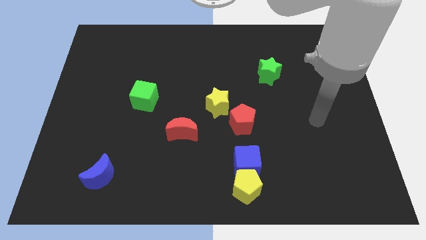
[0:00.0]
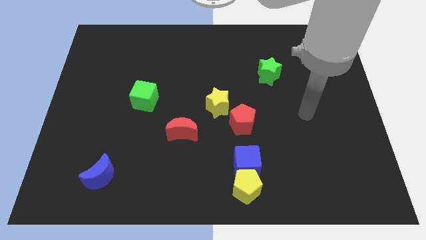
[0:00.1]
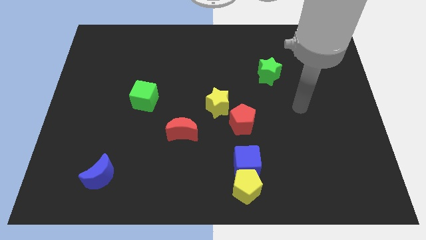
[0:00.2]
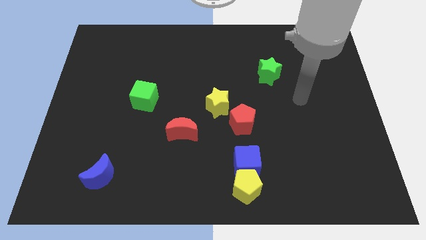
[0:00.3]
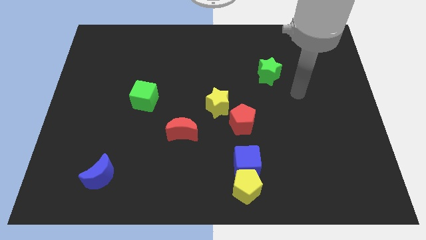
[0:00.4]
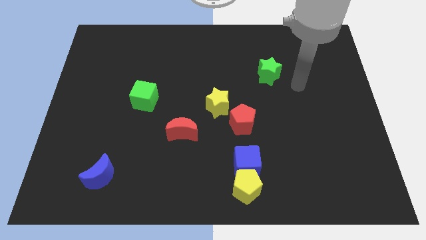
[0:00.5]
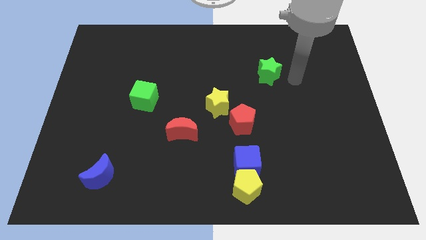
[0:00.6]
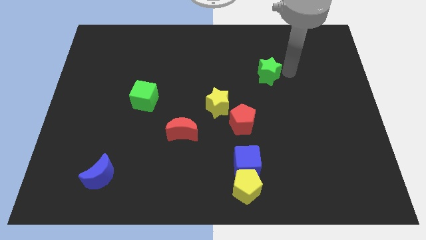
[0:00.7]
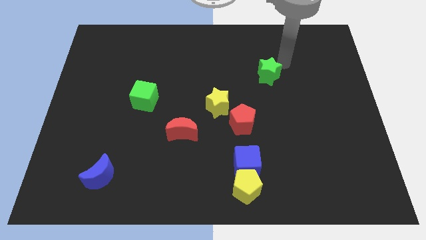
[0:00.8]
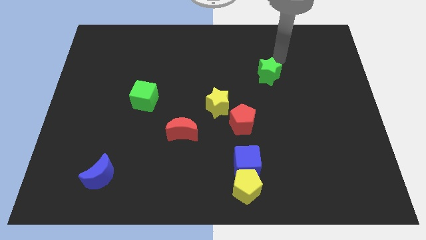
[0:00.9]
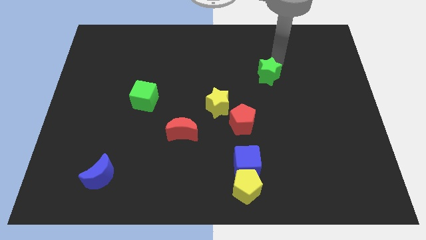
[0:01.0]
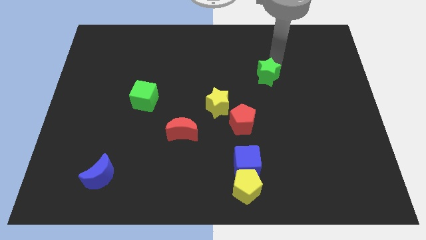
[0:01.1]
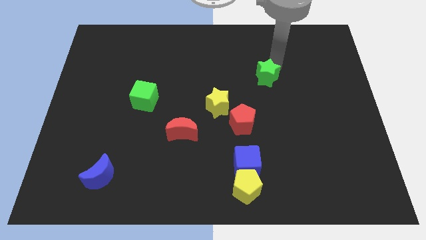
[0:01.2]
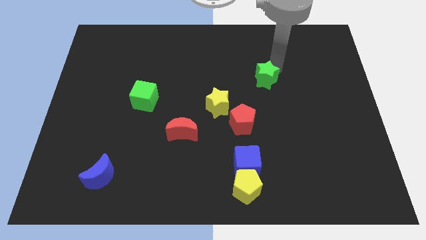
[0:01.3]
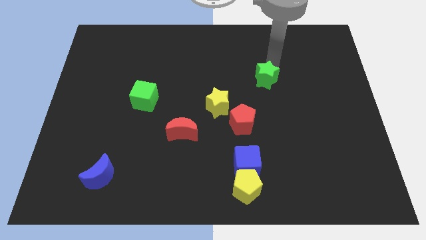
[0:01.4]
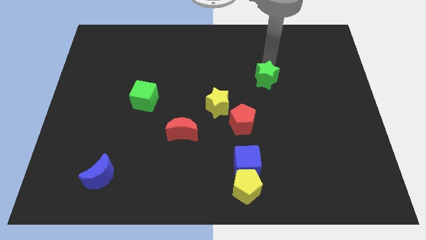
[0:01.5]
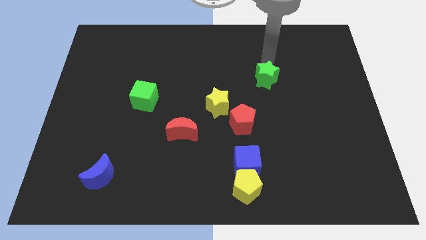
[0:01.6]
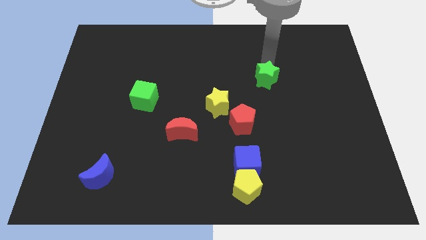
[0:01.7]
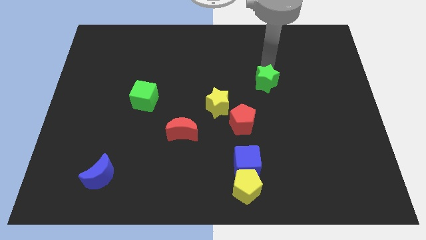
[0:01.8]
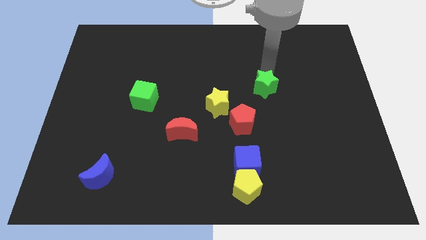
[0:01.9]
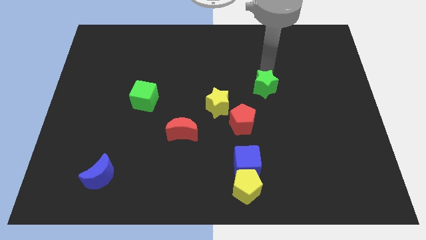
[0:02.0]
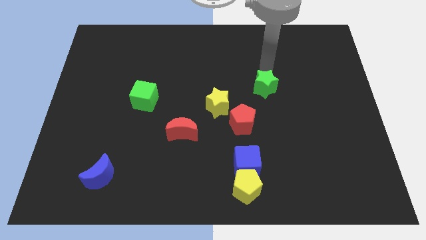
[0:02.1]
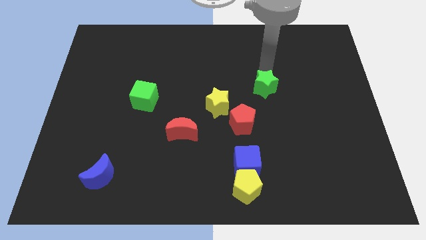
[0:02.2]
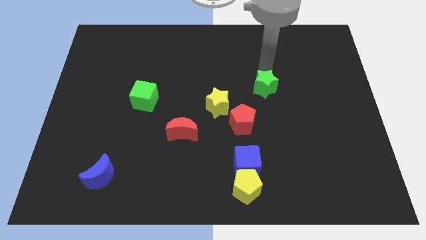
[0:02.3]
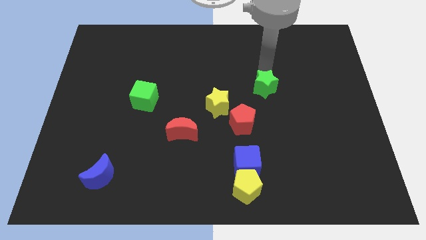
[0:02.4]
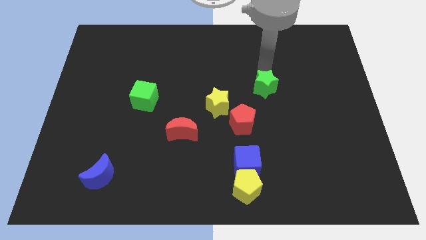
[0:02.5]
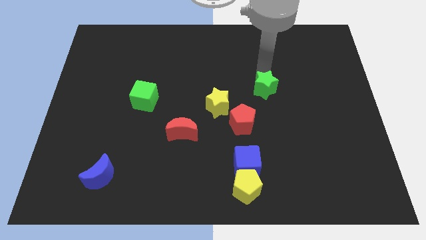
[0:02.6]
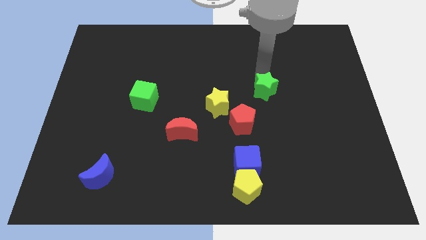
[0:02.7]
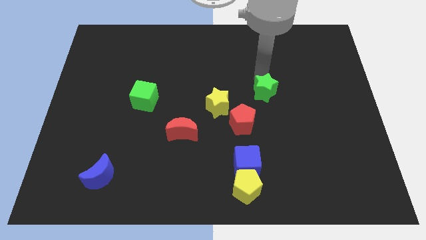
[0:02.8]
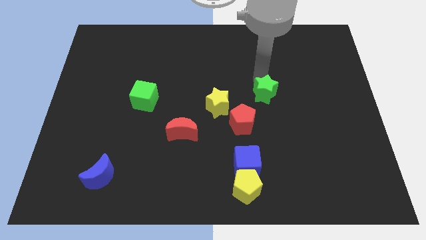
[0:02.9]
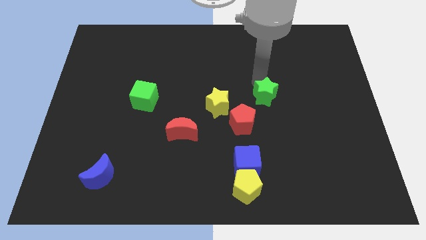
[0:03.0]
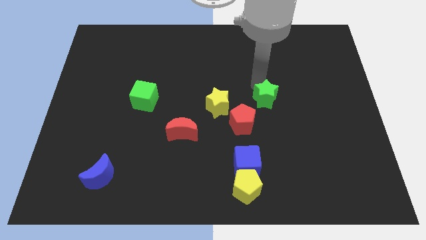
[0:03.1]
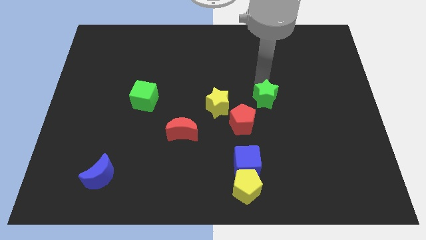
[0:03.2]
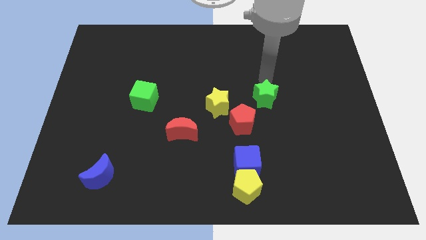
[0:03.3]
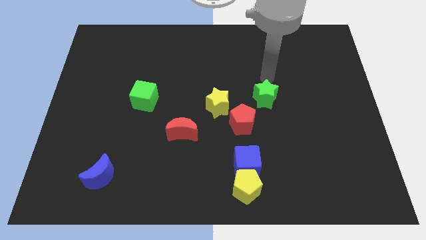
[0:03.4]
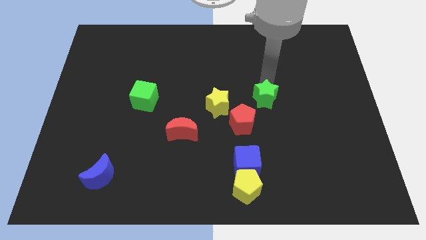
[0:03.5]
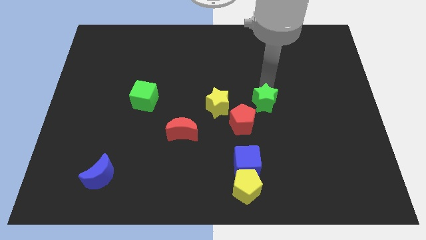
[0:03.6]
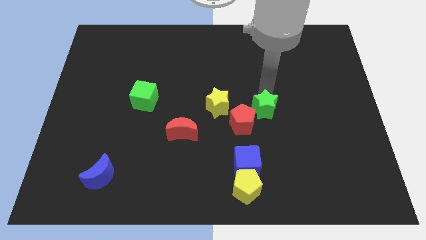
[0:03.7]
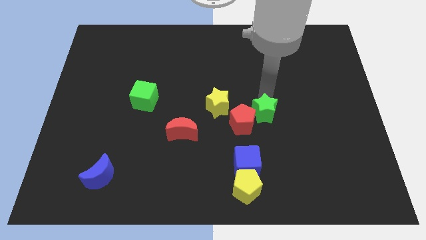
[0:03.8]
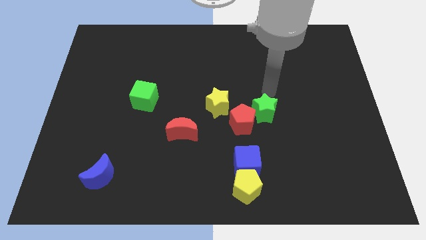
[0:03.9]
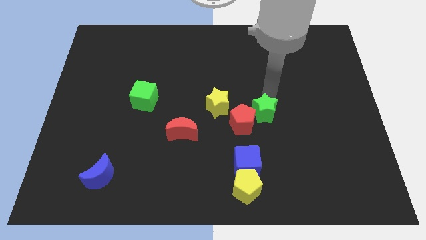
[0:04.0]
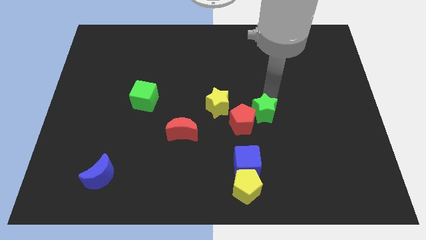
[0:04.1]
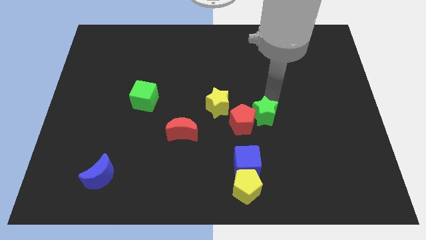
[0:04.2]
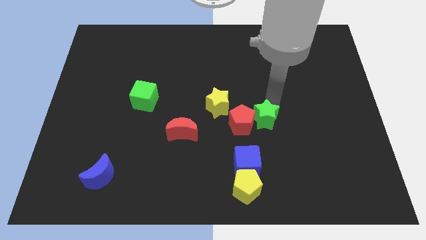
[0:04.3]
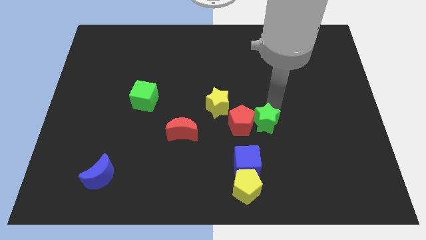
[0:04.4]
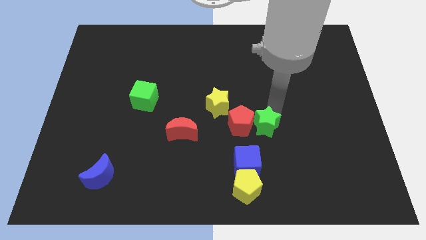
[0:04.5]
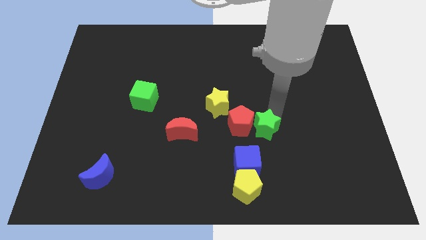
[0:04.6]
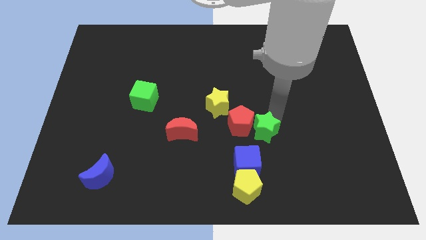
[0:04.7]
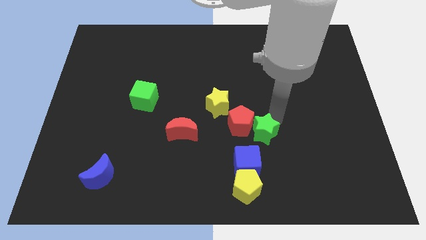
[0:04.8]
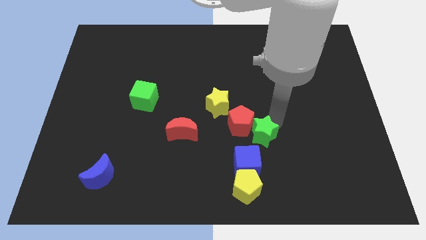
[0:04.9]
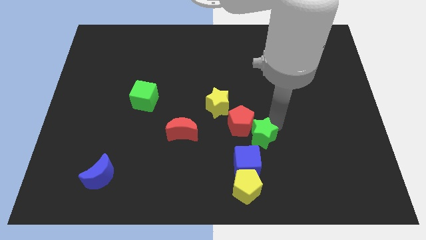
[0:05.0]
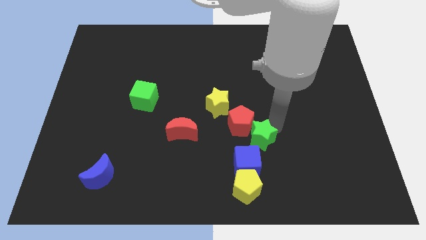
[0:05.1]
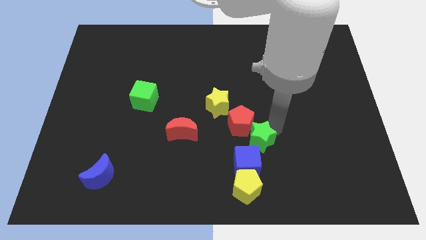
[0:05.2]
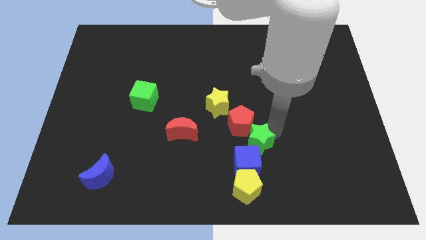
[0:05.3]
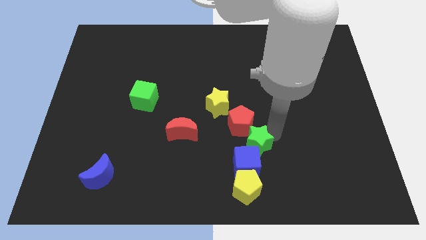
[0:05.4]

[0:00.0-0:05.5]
move the green star to the blue cube

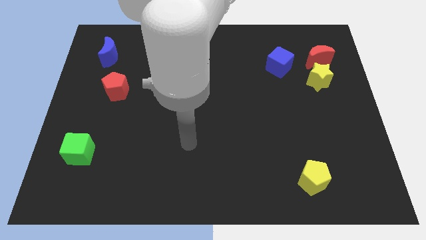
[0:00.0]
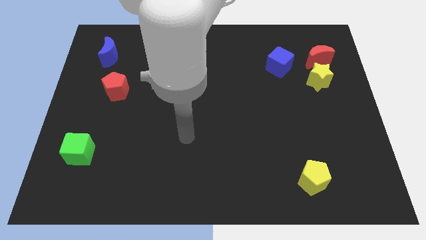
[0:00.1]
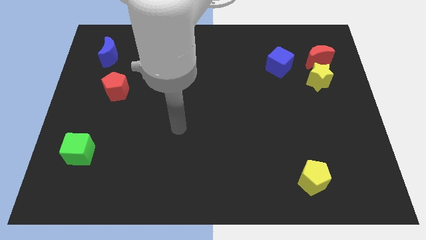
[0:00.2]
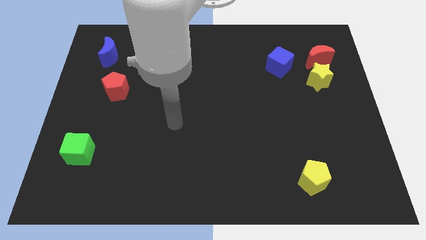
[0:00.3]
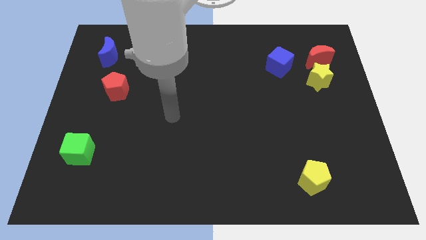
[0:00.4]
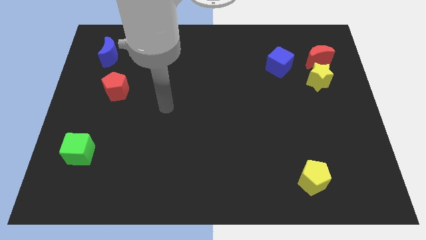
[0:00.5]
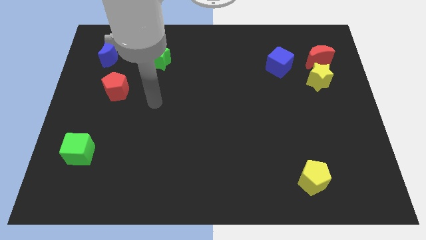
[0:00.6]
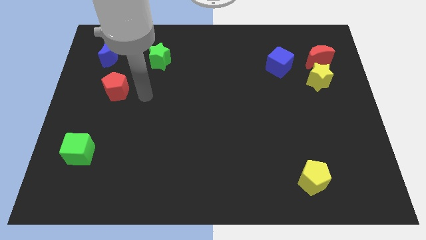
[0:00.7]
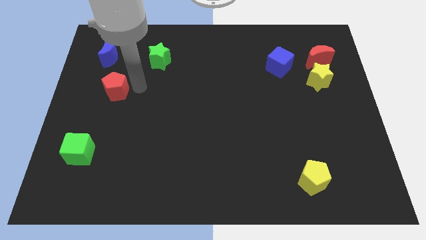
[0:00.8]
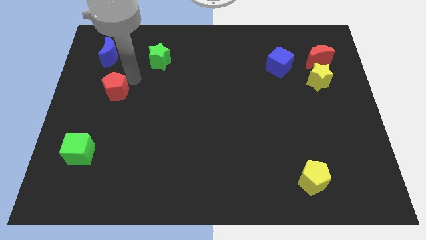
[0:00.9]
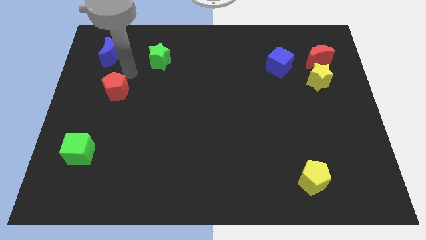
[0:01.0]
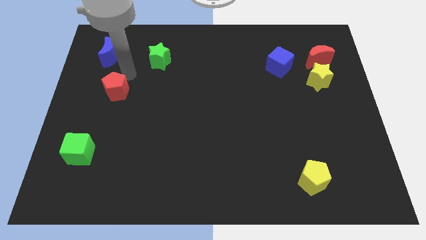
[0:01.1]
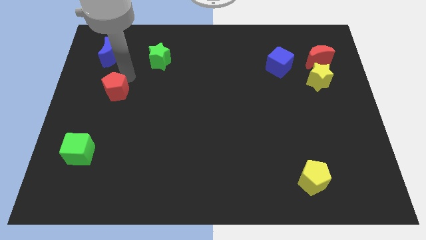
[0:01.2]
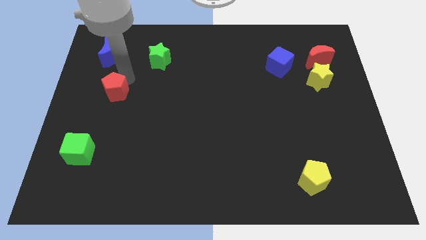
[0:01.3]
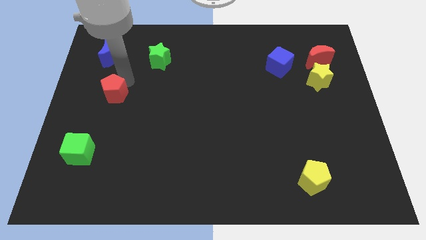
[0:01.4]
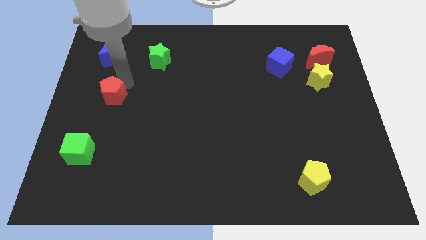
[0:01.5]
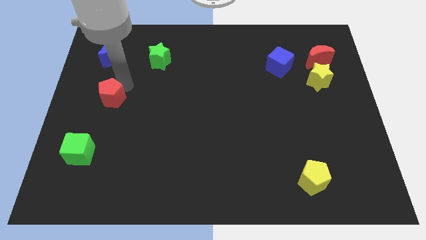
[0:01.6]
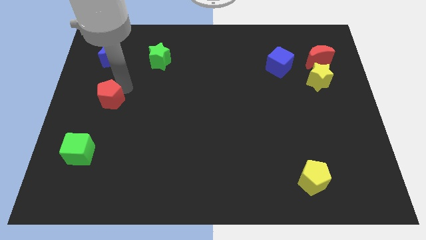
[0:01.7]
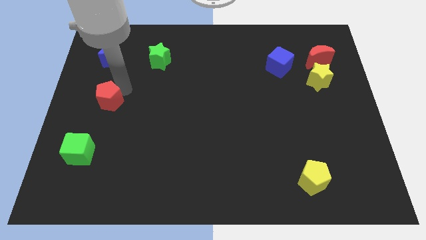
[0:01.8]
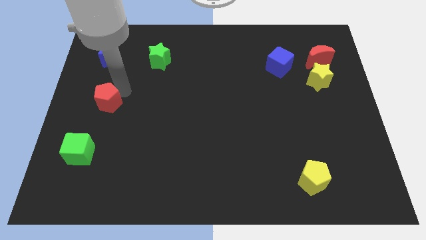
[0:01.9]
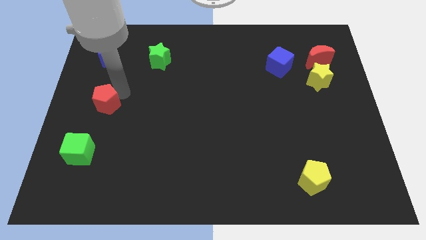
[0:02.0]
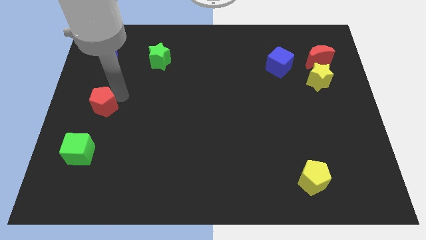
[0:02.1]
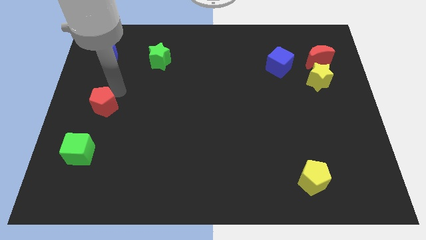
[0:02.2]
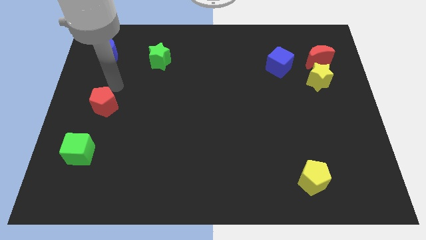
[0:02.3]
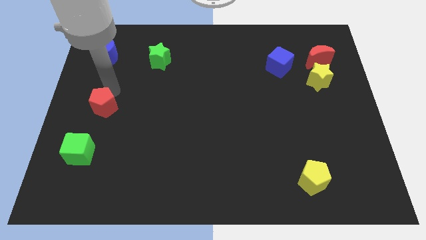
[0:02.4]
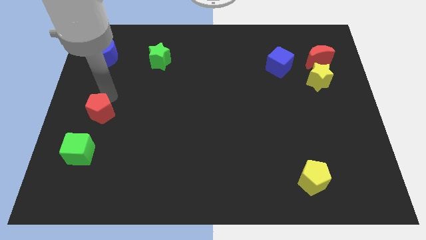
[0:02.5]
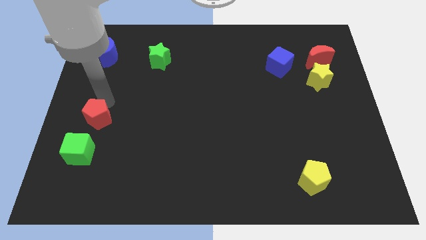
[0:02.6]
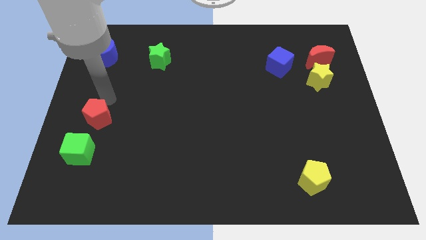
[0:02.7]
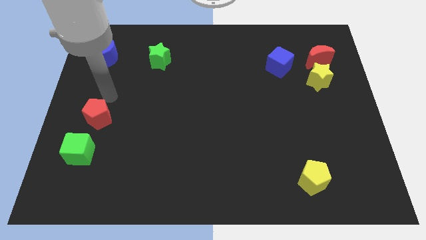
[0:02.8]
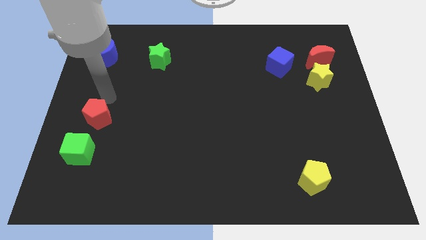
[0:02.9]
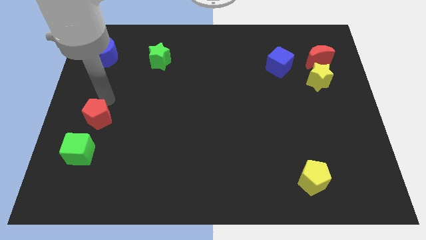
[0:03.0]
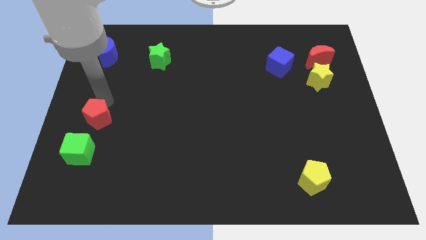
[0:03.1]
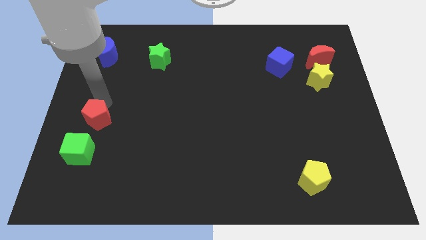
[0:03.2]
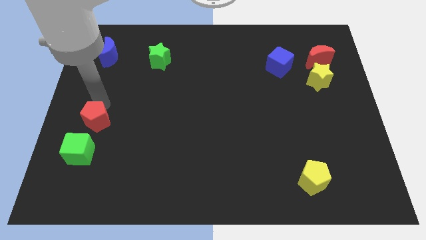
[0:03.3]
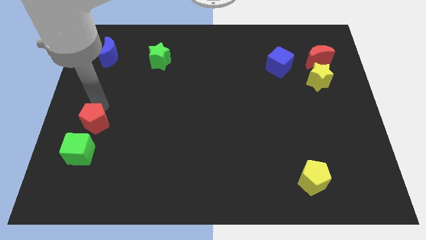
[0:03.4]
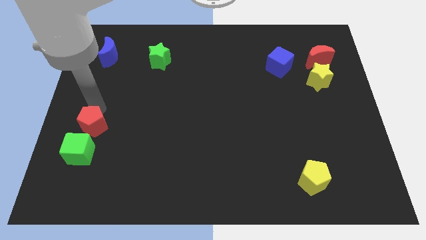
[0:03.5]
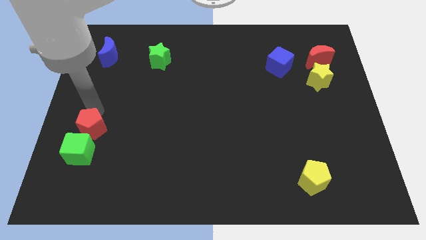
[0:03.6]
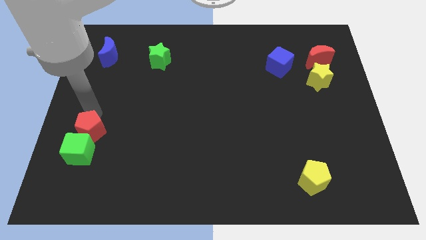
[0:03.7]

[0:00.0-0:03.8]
push the red pentagon towards the green cube
